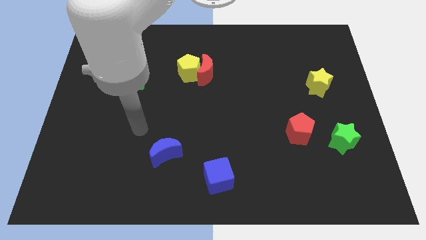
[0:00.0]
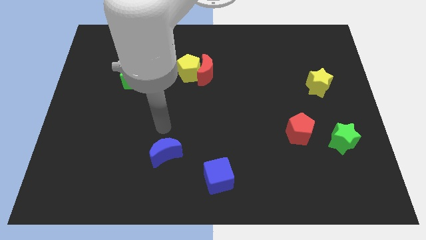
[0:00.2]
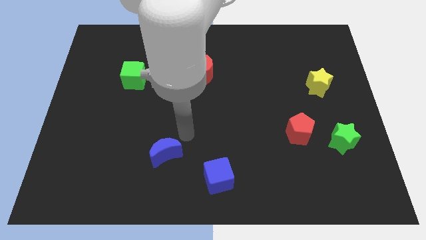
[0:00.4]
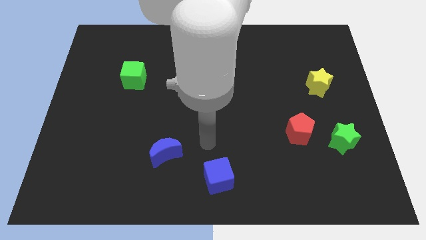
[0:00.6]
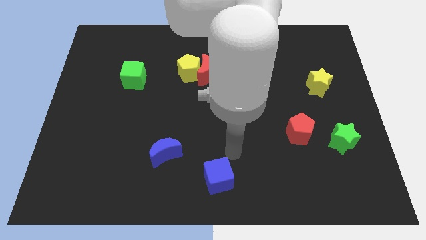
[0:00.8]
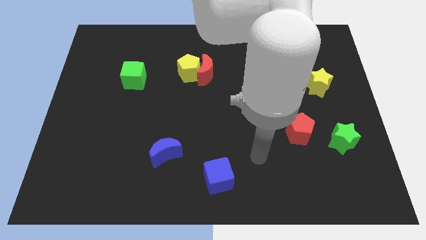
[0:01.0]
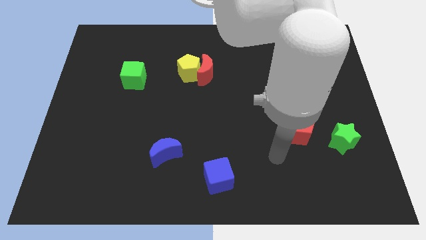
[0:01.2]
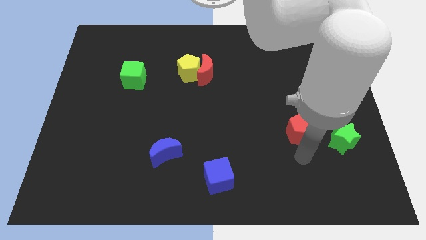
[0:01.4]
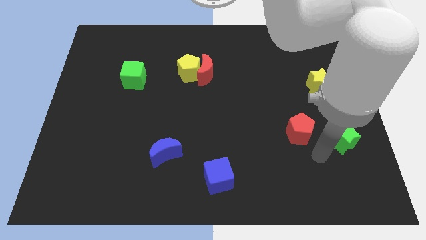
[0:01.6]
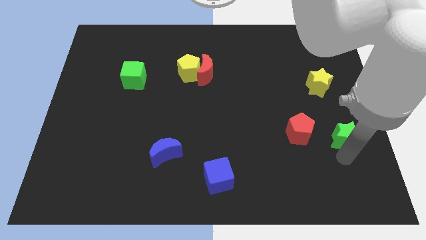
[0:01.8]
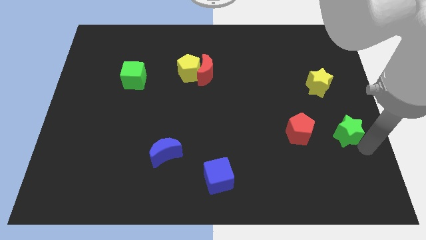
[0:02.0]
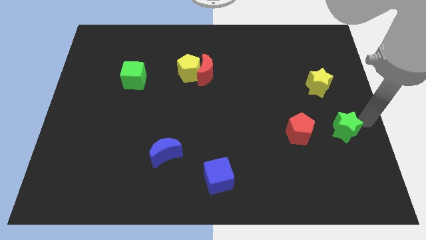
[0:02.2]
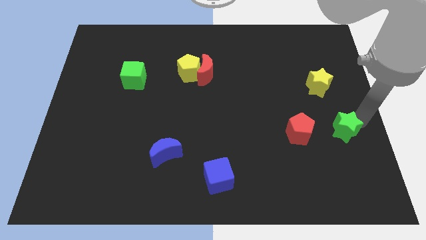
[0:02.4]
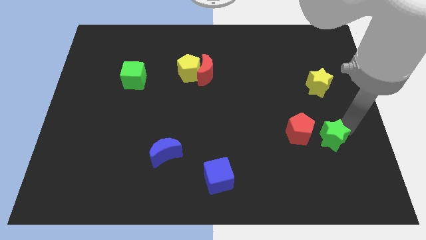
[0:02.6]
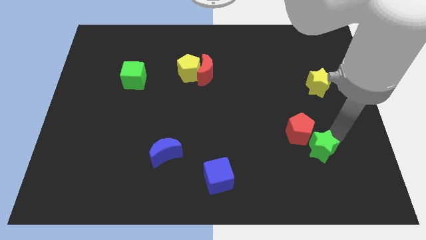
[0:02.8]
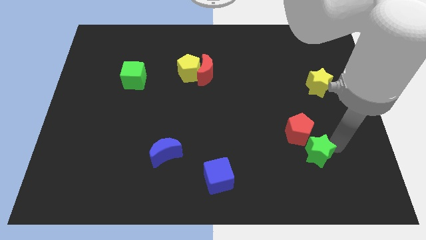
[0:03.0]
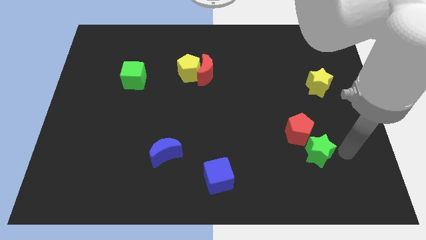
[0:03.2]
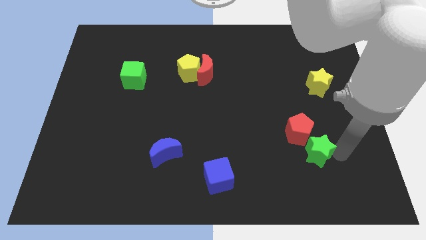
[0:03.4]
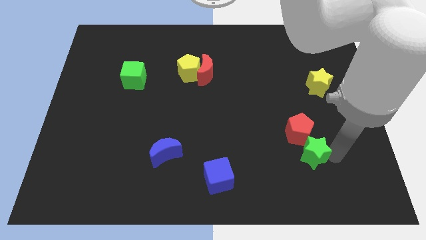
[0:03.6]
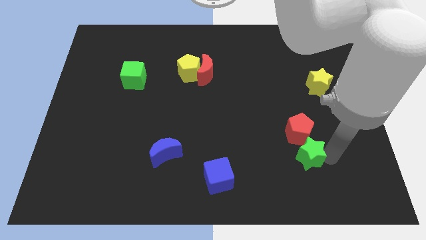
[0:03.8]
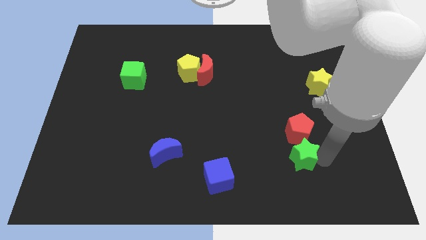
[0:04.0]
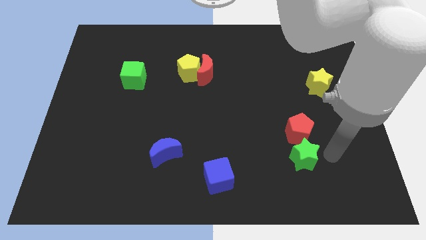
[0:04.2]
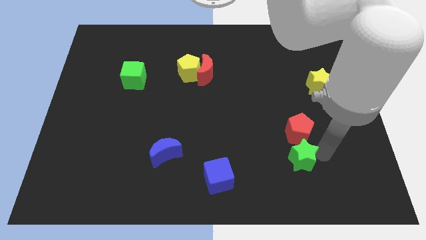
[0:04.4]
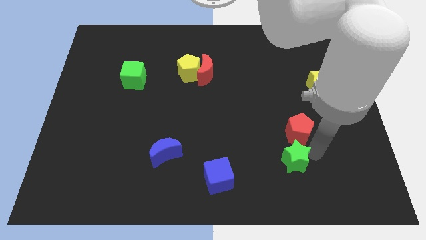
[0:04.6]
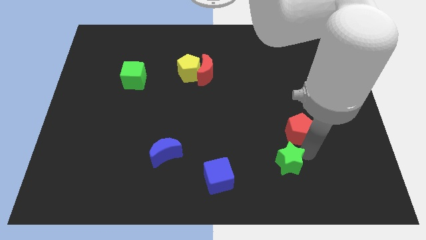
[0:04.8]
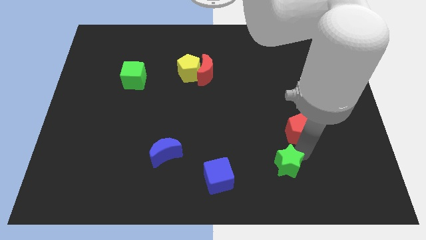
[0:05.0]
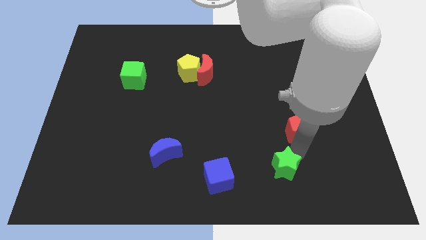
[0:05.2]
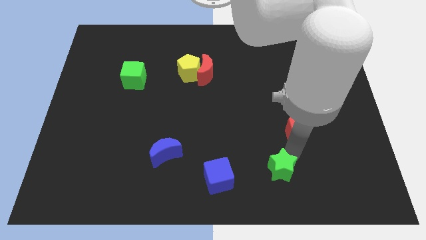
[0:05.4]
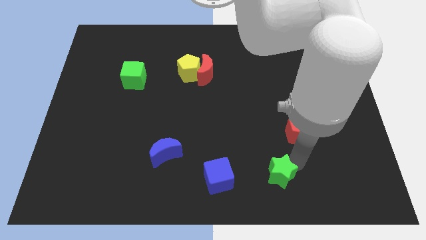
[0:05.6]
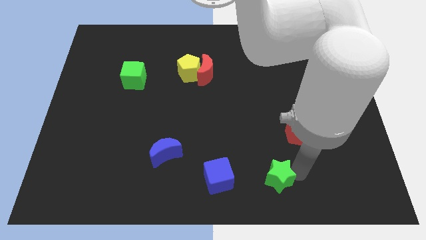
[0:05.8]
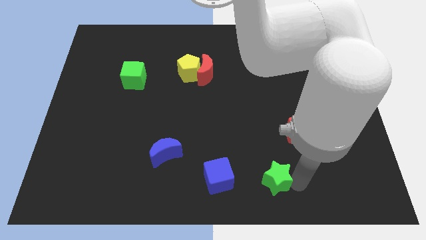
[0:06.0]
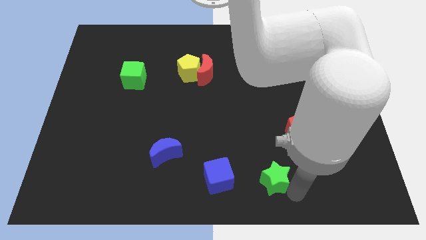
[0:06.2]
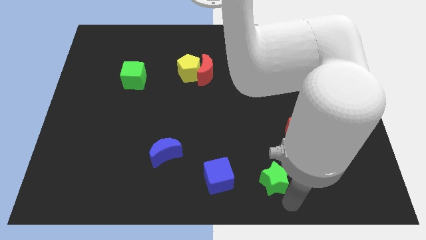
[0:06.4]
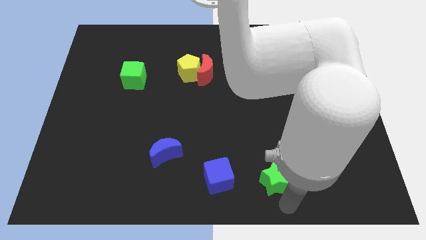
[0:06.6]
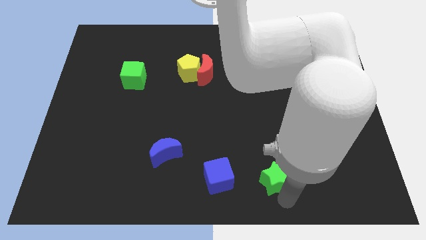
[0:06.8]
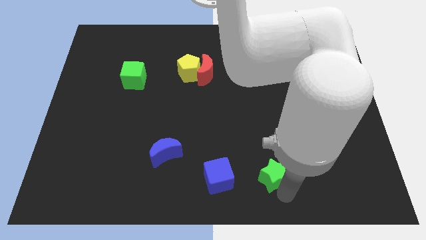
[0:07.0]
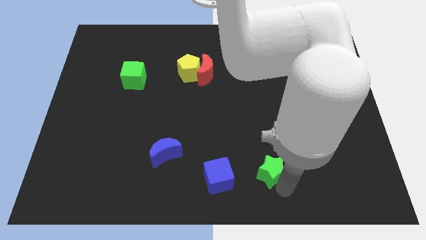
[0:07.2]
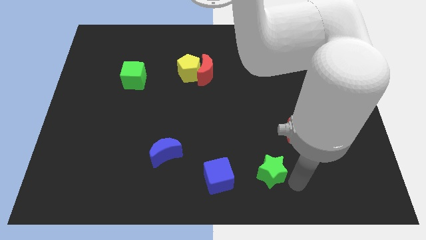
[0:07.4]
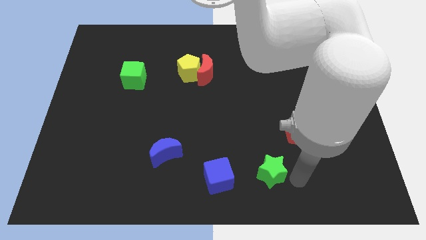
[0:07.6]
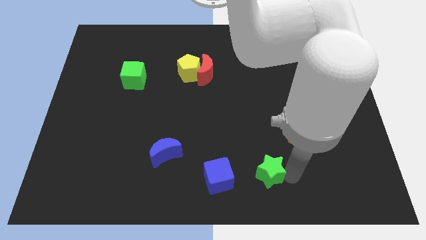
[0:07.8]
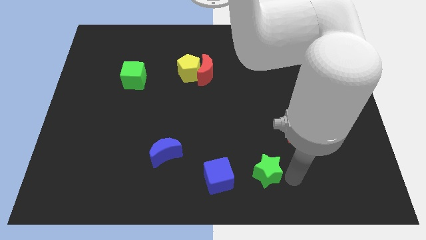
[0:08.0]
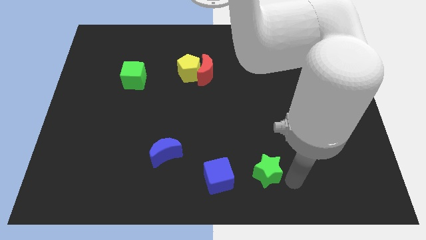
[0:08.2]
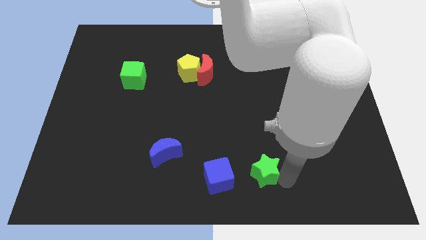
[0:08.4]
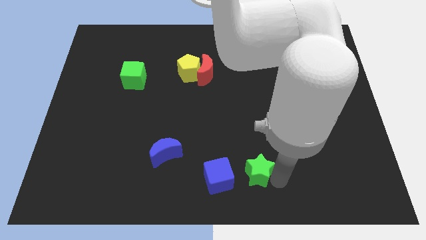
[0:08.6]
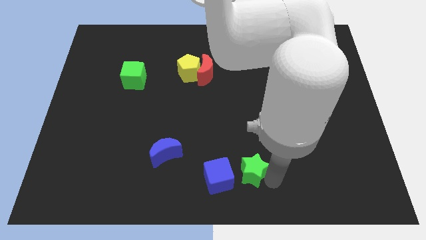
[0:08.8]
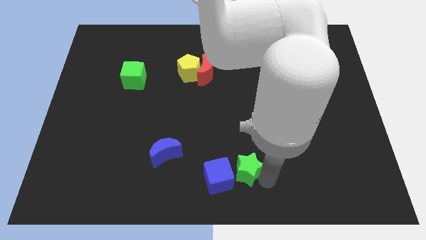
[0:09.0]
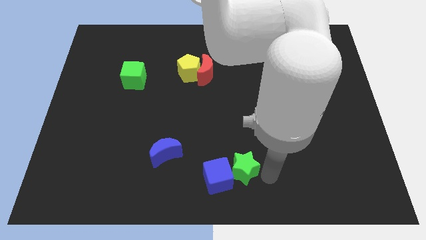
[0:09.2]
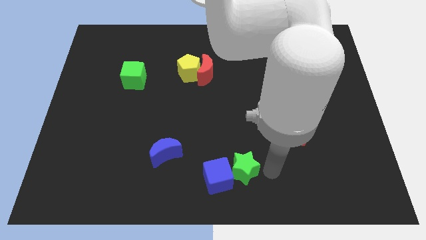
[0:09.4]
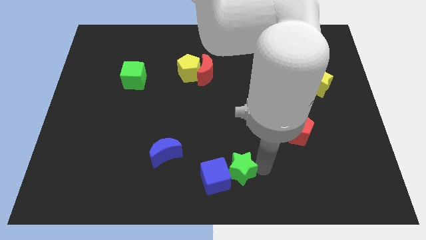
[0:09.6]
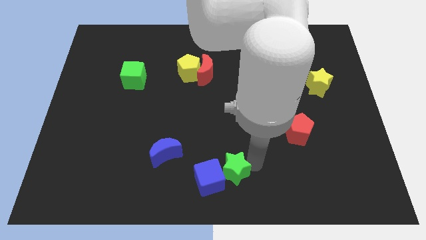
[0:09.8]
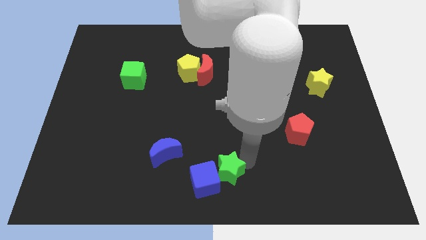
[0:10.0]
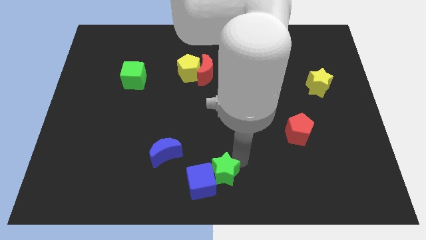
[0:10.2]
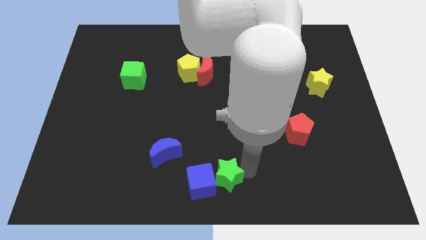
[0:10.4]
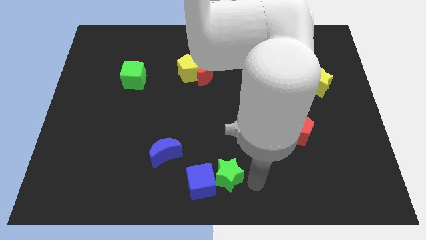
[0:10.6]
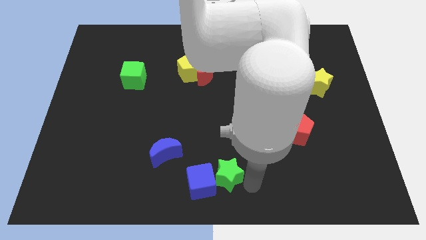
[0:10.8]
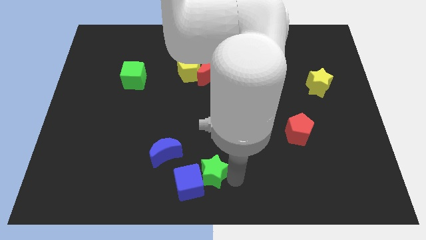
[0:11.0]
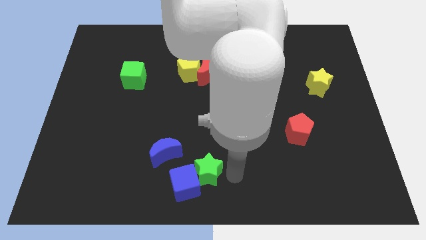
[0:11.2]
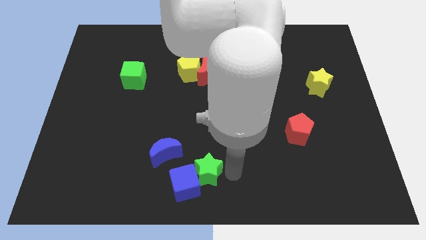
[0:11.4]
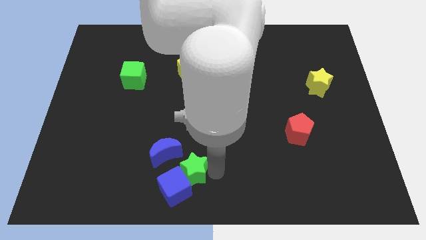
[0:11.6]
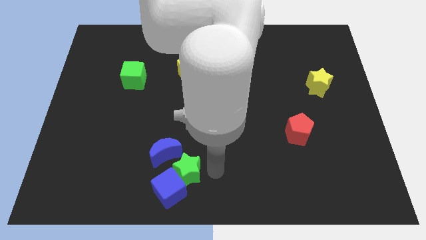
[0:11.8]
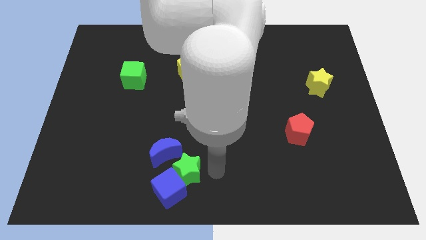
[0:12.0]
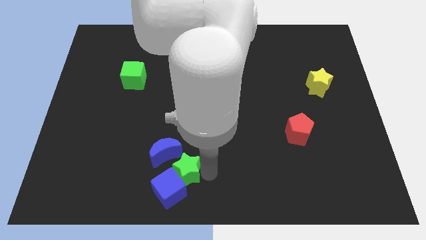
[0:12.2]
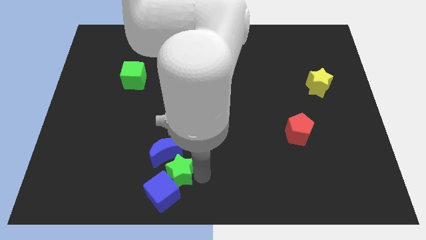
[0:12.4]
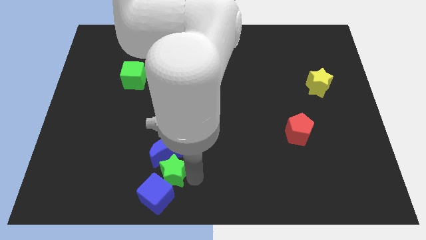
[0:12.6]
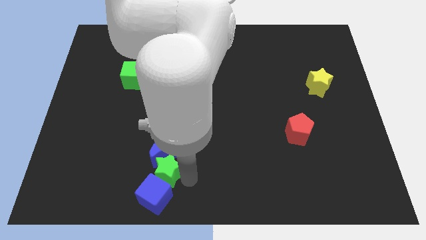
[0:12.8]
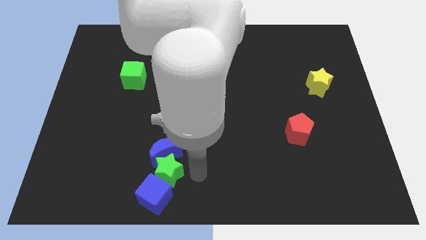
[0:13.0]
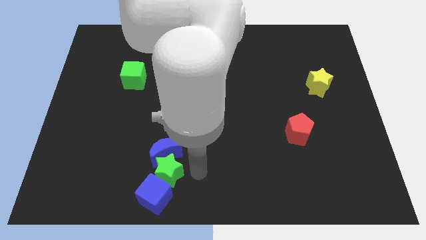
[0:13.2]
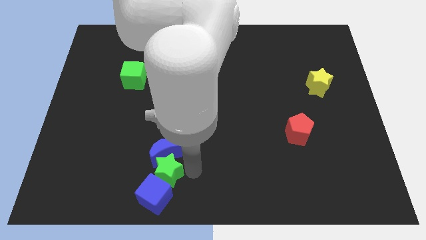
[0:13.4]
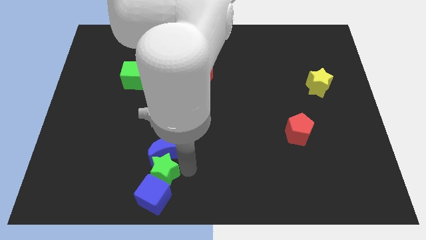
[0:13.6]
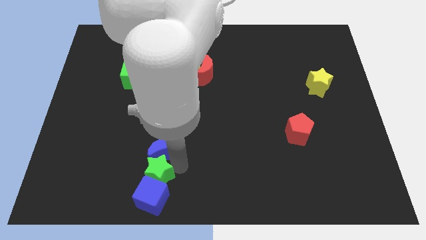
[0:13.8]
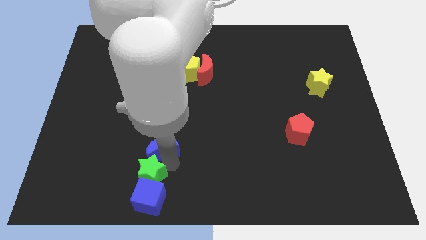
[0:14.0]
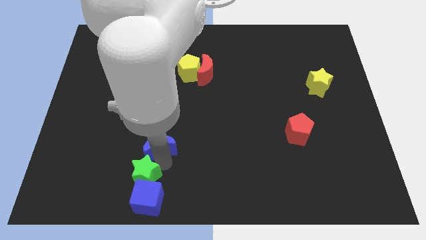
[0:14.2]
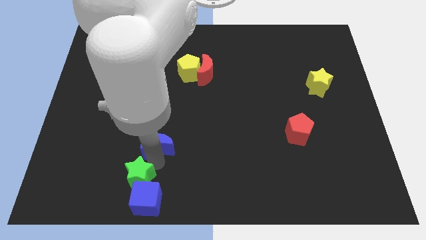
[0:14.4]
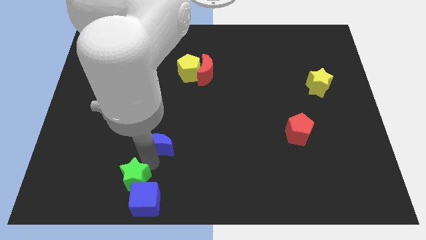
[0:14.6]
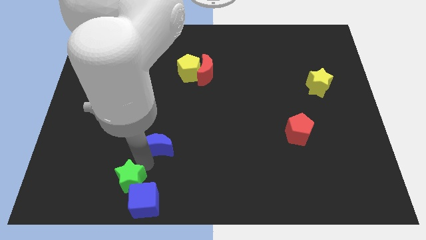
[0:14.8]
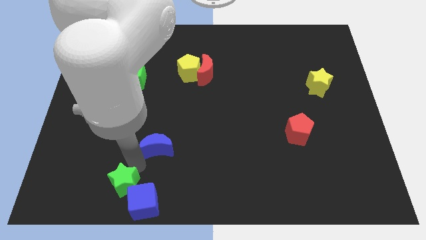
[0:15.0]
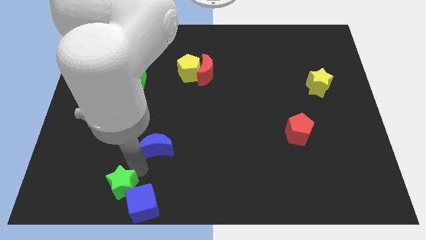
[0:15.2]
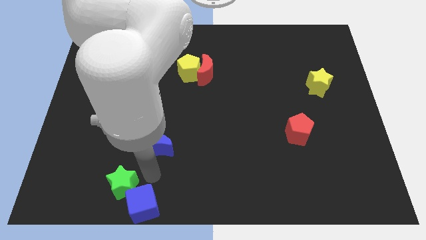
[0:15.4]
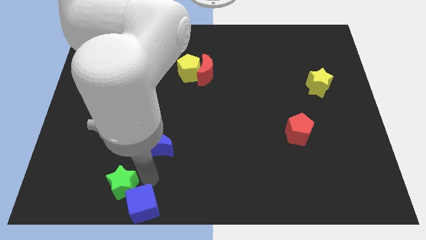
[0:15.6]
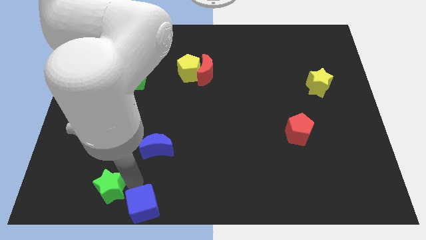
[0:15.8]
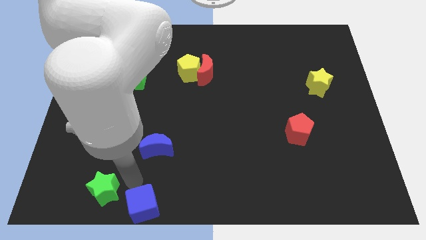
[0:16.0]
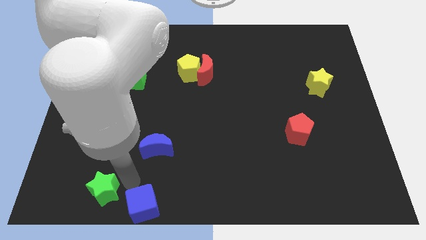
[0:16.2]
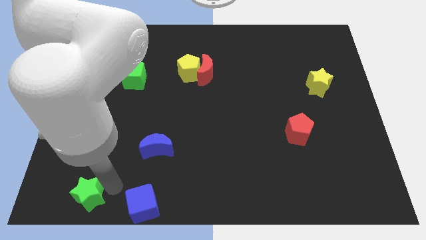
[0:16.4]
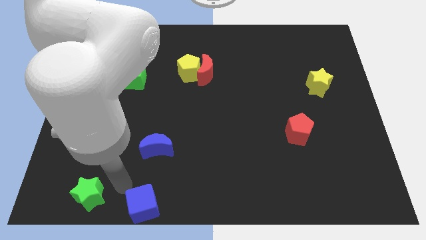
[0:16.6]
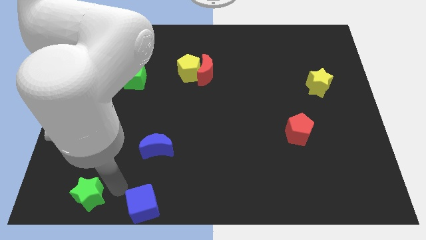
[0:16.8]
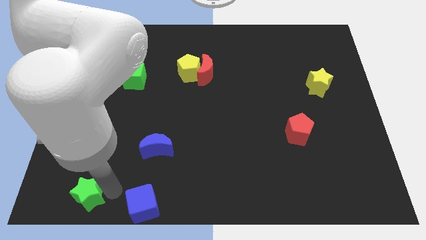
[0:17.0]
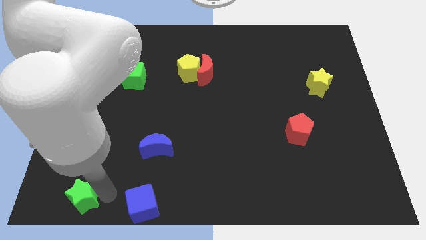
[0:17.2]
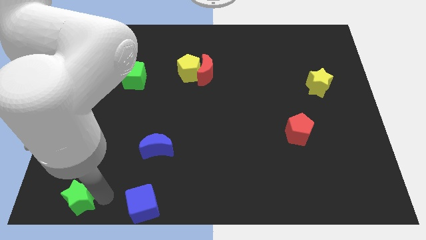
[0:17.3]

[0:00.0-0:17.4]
put the green star to the bottom left of the board
